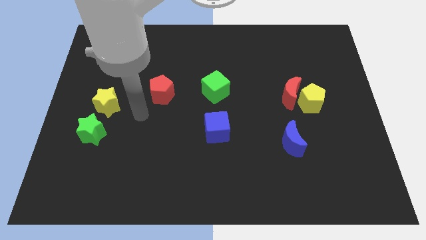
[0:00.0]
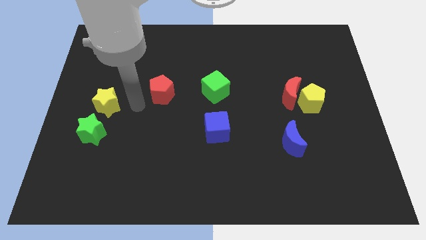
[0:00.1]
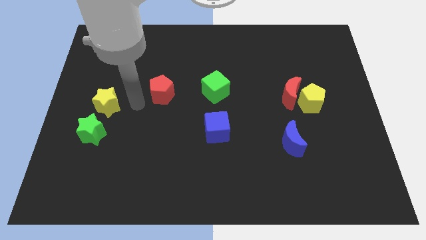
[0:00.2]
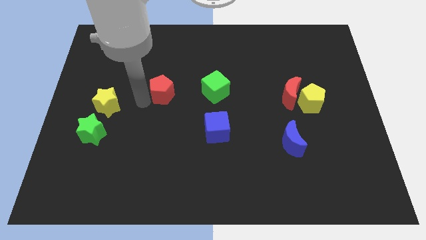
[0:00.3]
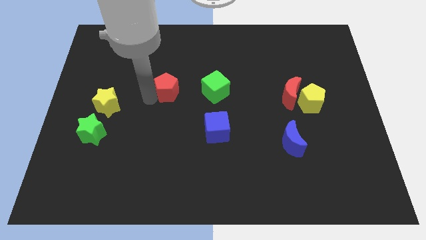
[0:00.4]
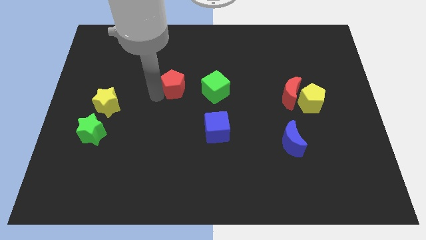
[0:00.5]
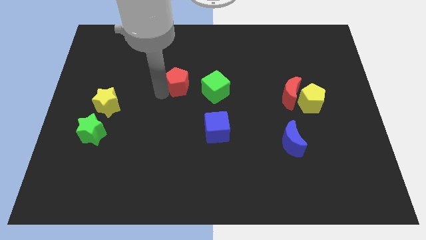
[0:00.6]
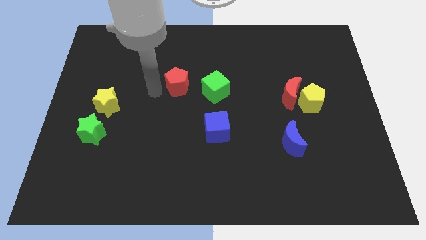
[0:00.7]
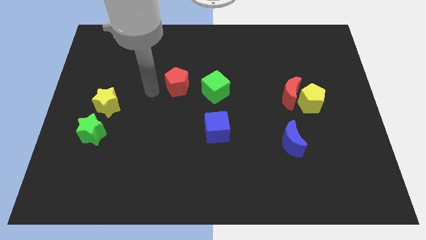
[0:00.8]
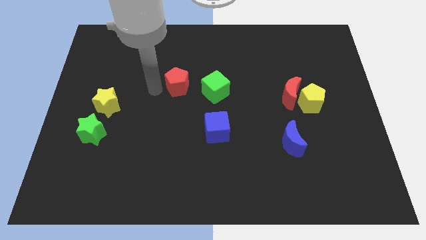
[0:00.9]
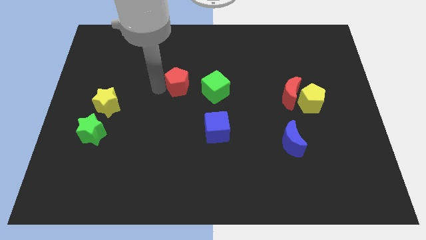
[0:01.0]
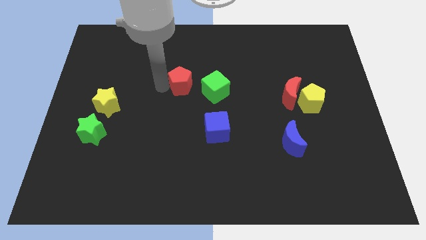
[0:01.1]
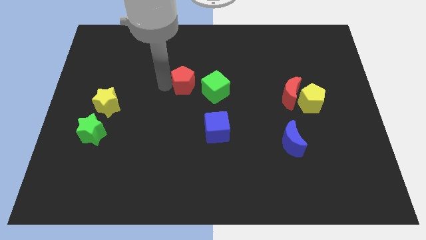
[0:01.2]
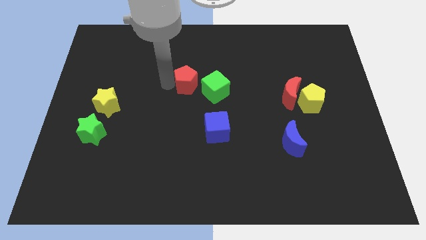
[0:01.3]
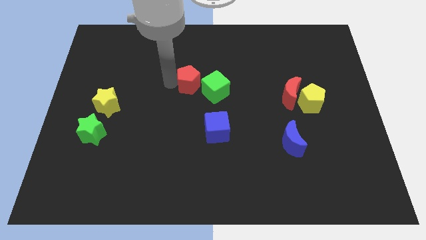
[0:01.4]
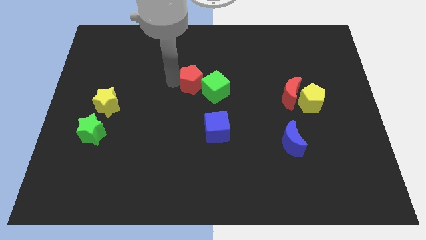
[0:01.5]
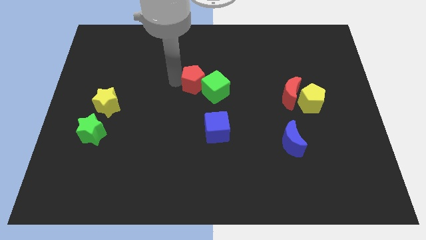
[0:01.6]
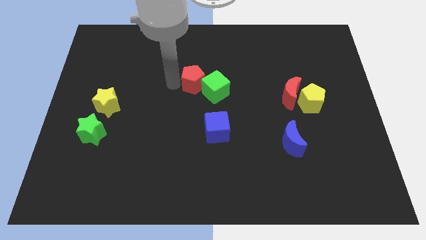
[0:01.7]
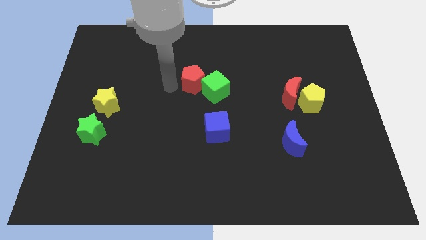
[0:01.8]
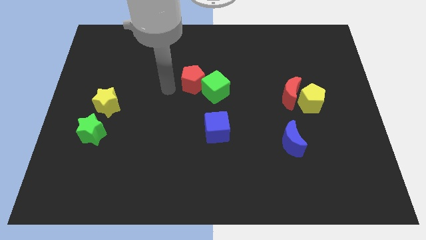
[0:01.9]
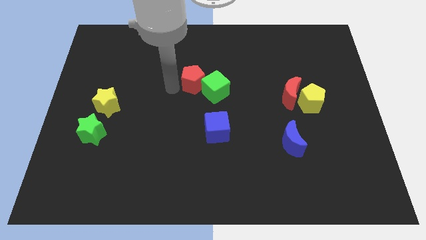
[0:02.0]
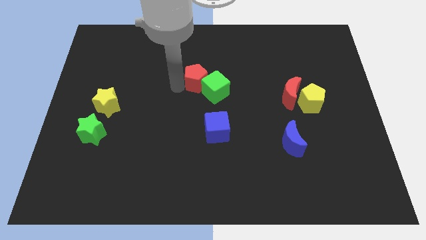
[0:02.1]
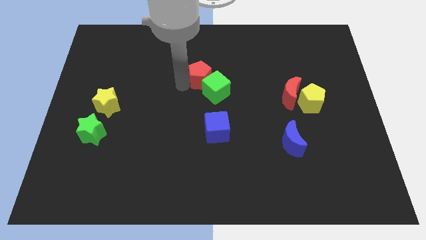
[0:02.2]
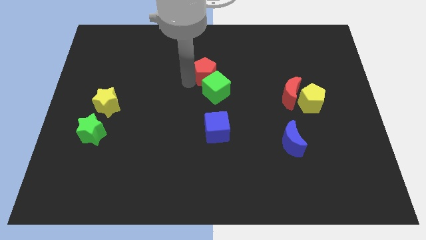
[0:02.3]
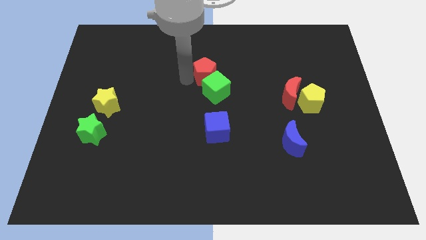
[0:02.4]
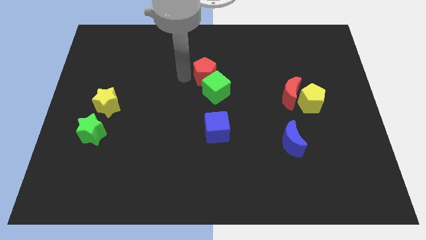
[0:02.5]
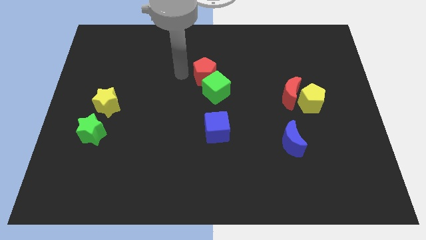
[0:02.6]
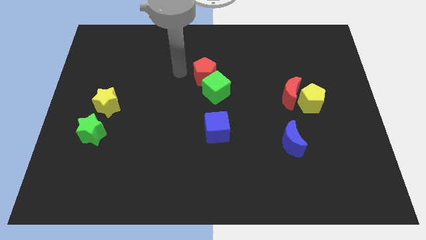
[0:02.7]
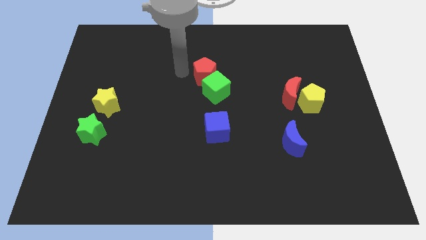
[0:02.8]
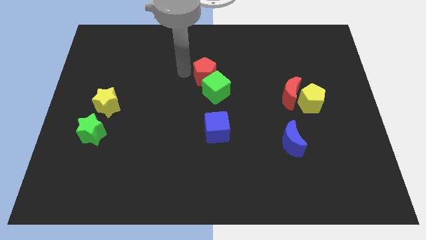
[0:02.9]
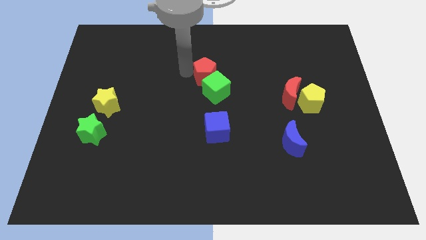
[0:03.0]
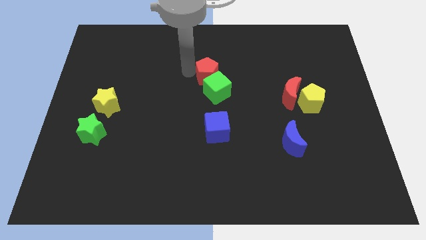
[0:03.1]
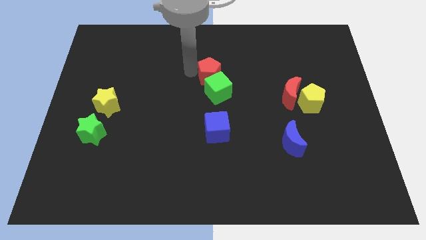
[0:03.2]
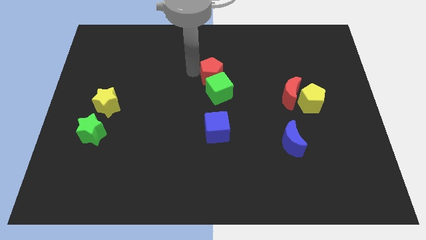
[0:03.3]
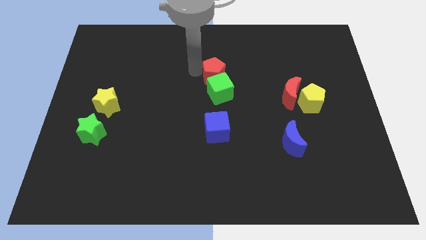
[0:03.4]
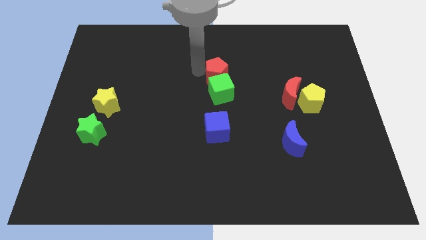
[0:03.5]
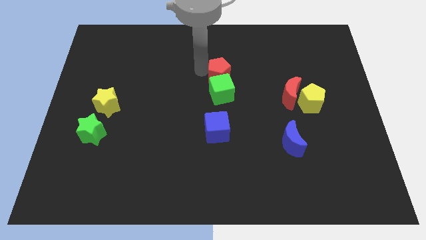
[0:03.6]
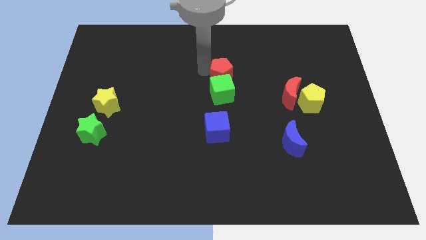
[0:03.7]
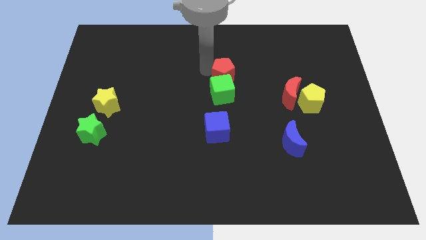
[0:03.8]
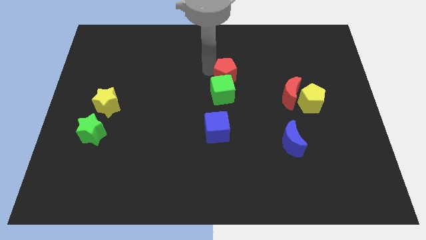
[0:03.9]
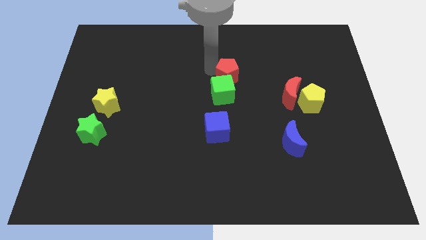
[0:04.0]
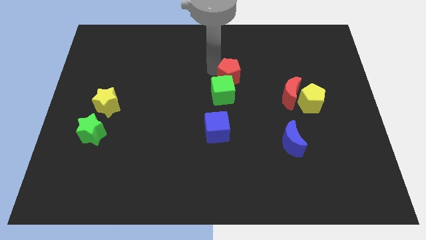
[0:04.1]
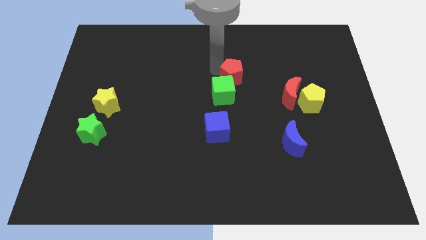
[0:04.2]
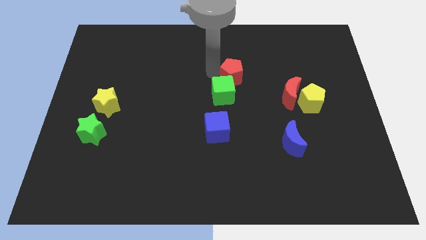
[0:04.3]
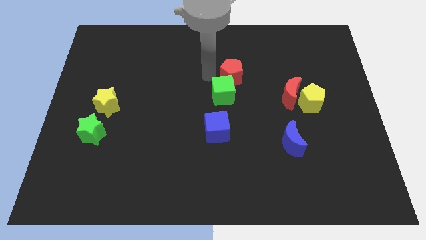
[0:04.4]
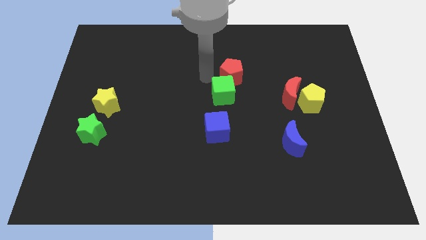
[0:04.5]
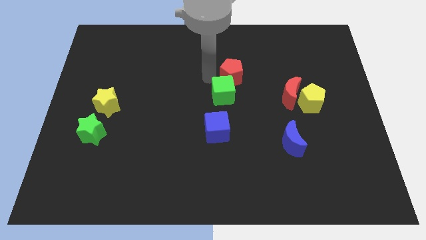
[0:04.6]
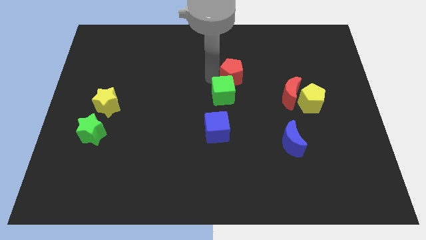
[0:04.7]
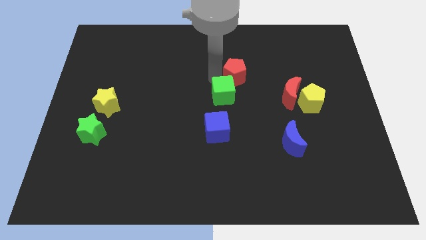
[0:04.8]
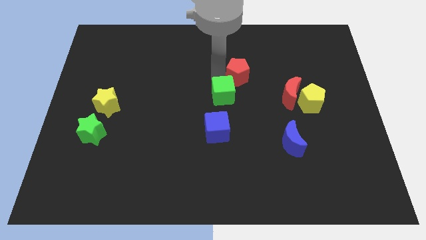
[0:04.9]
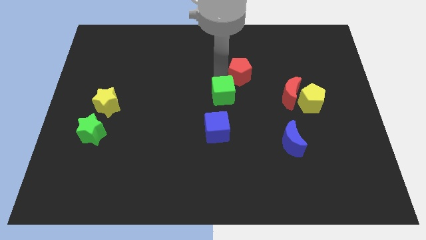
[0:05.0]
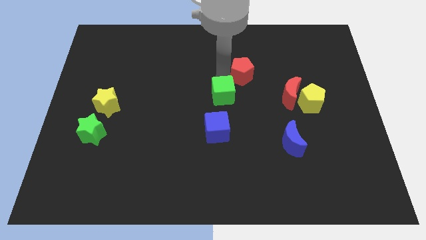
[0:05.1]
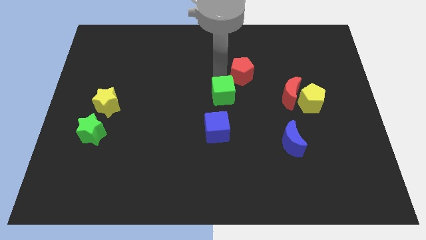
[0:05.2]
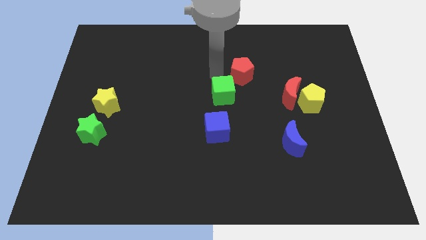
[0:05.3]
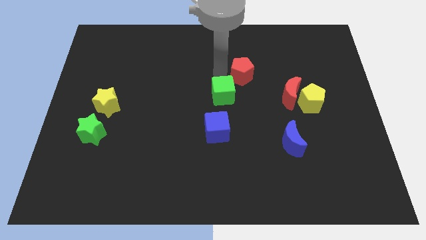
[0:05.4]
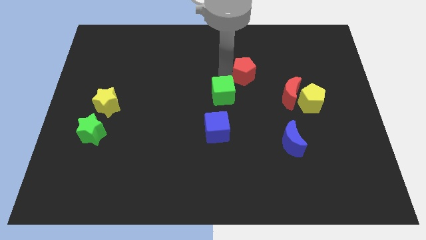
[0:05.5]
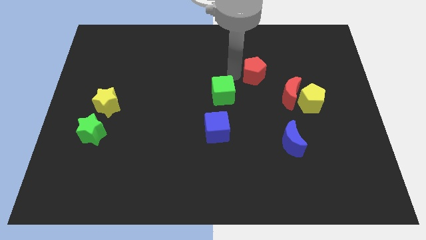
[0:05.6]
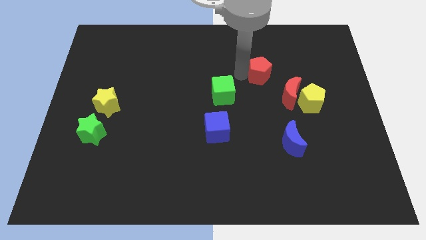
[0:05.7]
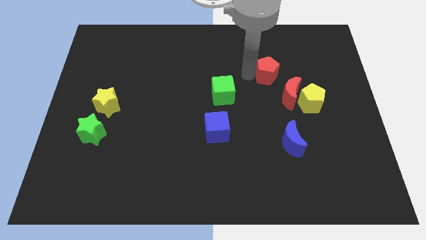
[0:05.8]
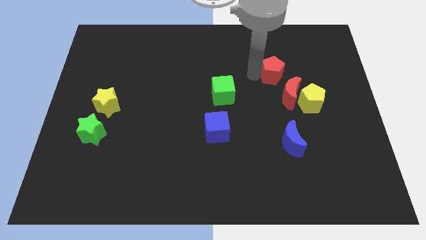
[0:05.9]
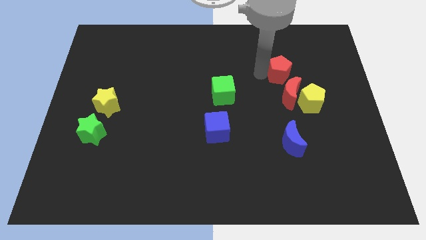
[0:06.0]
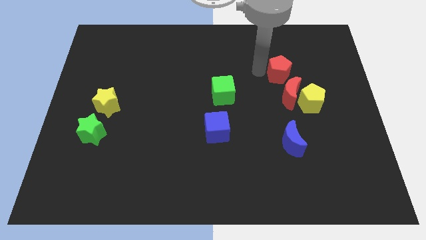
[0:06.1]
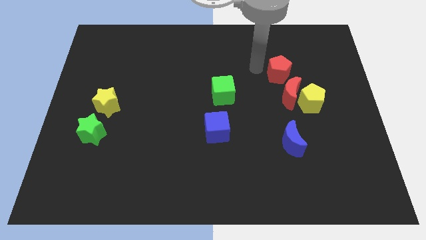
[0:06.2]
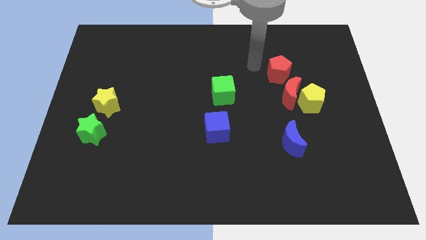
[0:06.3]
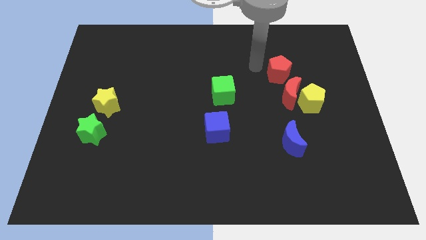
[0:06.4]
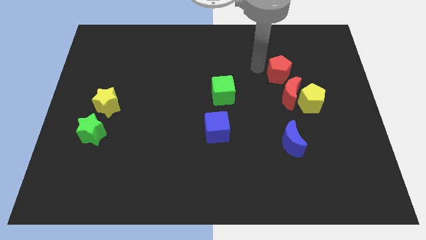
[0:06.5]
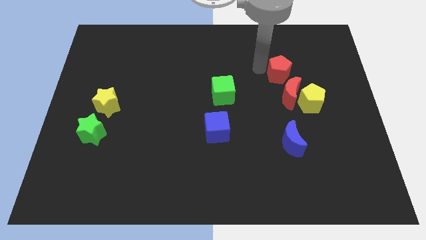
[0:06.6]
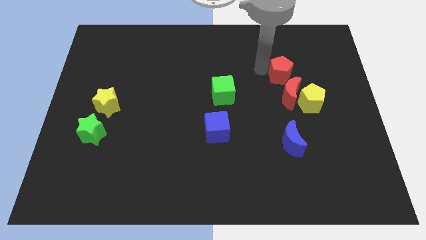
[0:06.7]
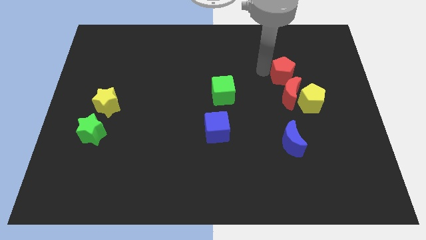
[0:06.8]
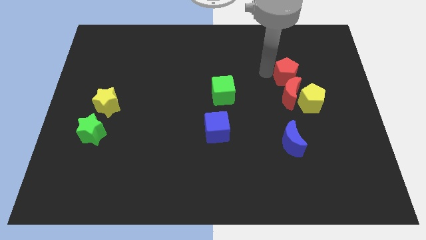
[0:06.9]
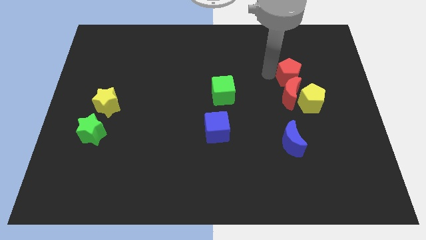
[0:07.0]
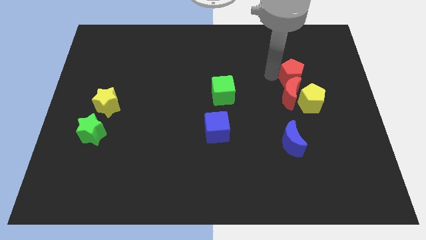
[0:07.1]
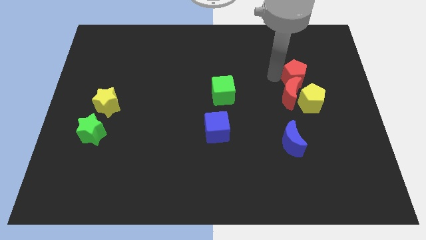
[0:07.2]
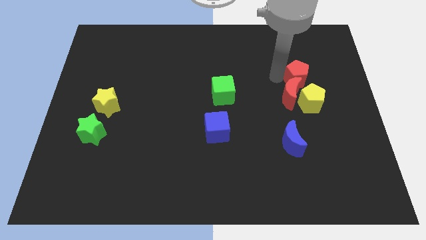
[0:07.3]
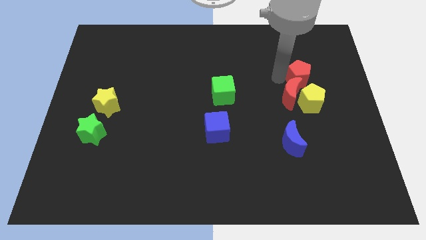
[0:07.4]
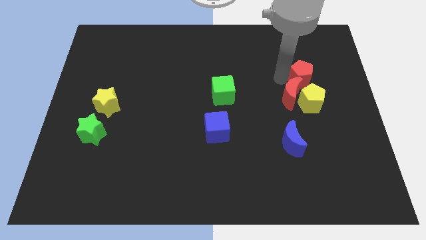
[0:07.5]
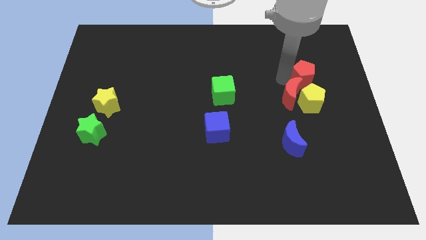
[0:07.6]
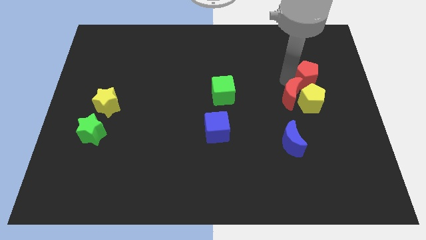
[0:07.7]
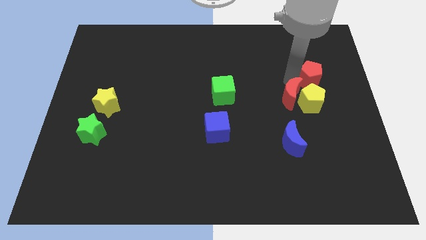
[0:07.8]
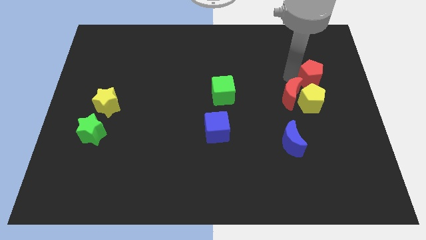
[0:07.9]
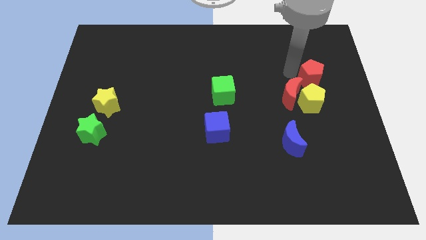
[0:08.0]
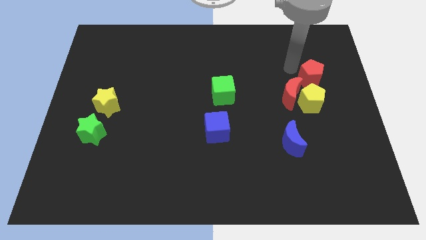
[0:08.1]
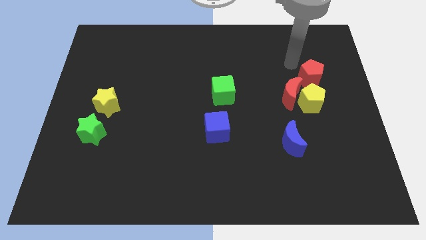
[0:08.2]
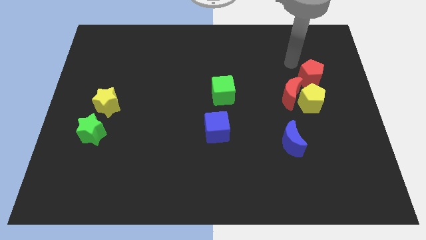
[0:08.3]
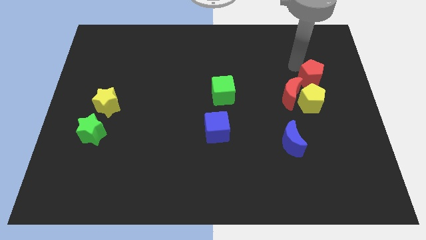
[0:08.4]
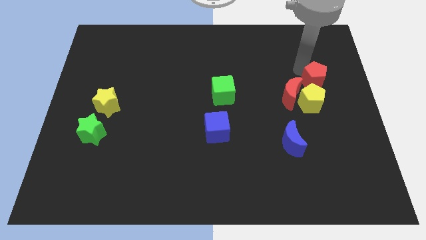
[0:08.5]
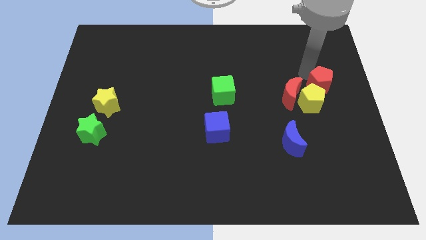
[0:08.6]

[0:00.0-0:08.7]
slide the red pentagon right of the red moon
